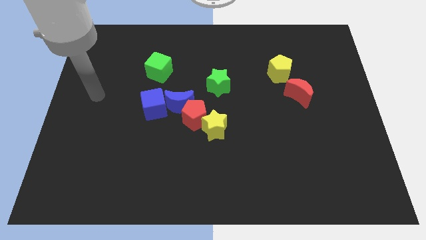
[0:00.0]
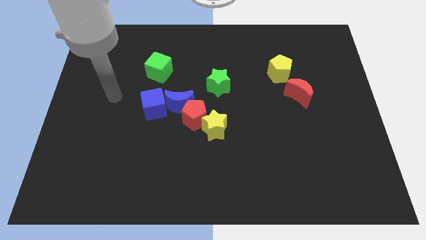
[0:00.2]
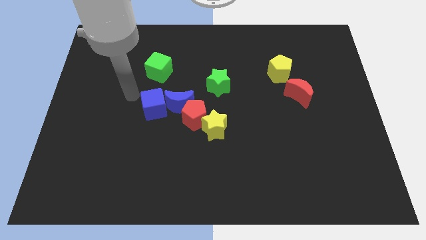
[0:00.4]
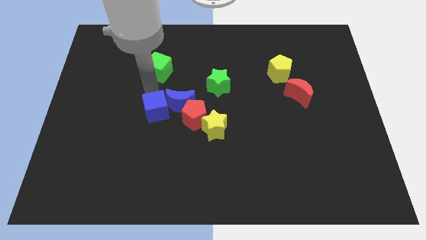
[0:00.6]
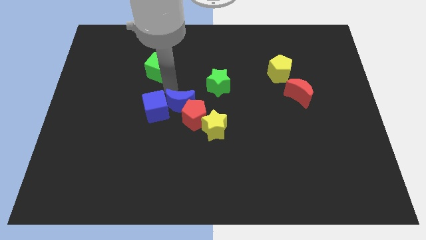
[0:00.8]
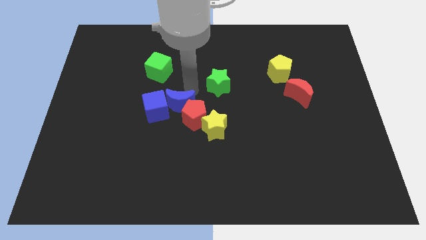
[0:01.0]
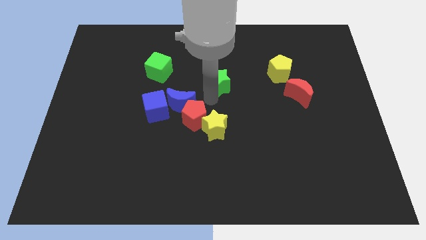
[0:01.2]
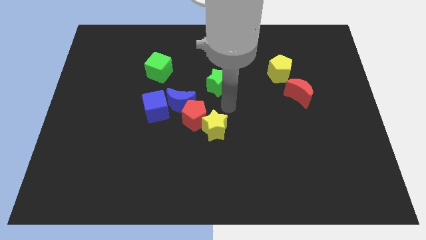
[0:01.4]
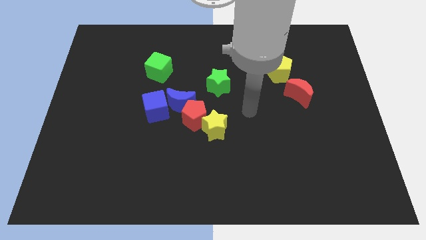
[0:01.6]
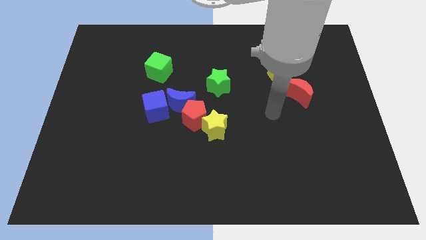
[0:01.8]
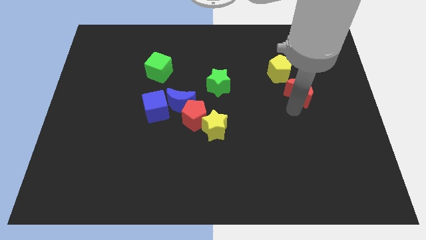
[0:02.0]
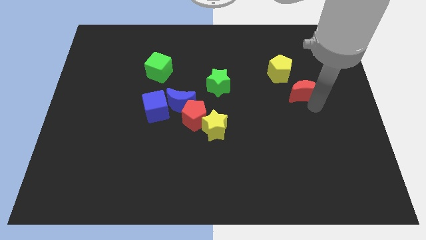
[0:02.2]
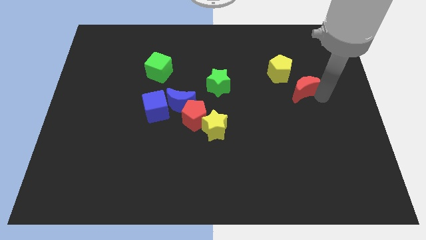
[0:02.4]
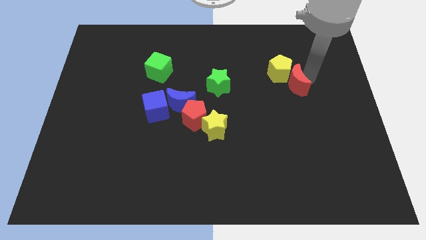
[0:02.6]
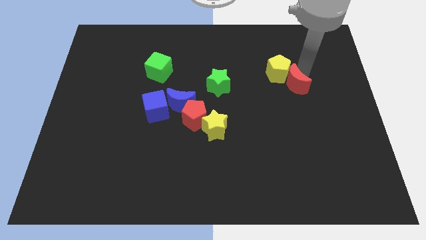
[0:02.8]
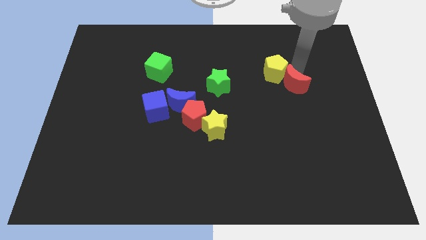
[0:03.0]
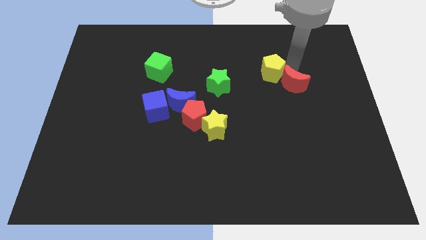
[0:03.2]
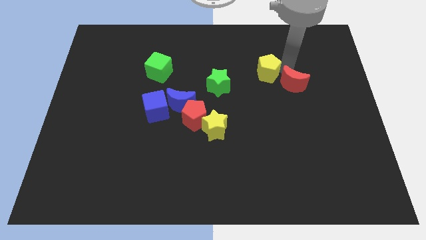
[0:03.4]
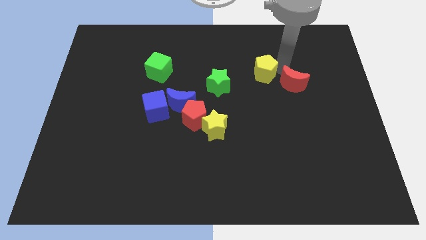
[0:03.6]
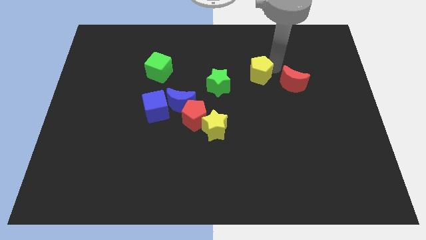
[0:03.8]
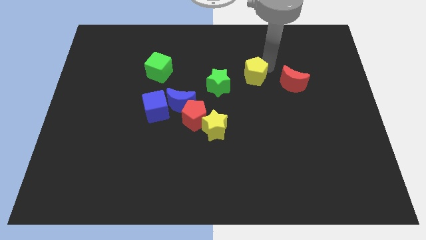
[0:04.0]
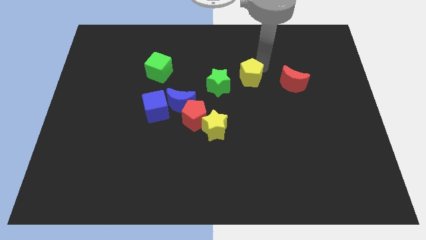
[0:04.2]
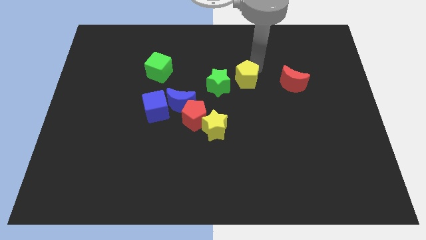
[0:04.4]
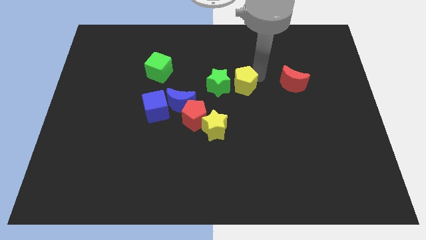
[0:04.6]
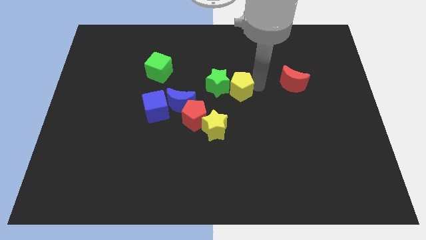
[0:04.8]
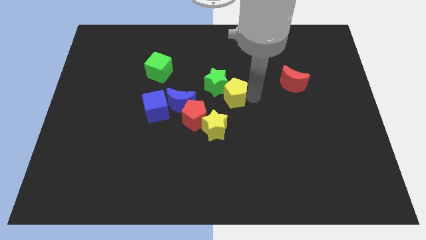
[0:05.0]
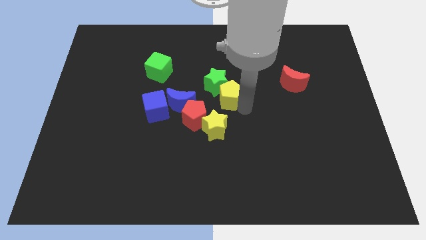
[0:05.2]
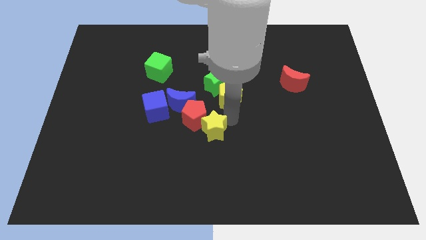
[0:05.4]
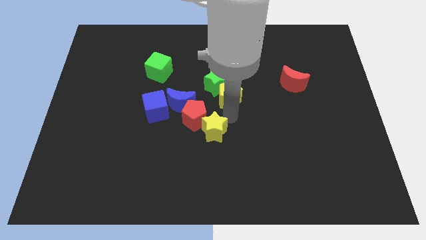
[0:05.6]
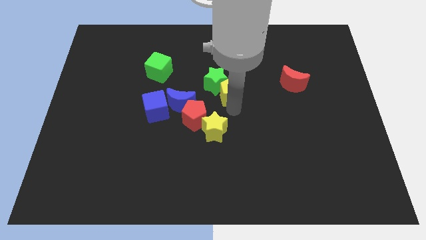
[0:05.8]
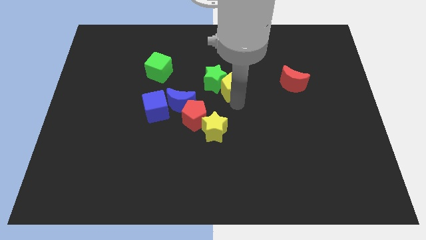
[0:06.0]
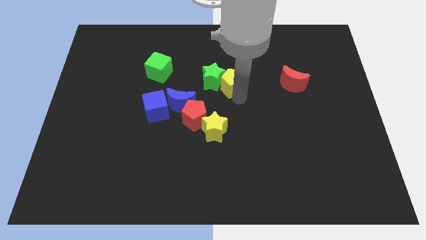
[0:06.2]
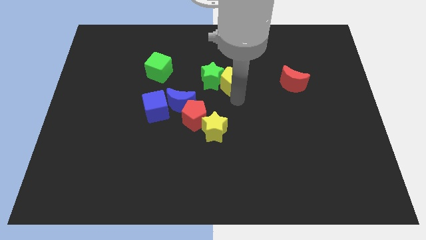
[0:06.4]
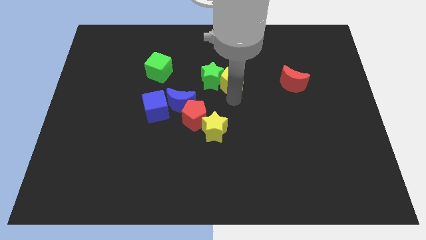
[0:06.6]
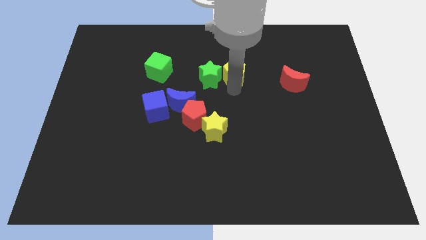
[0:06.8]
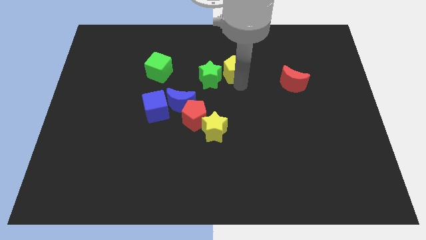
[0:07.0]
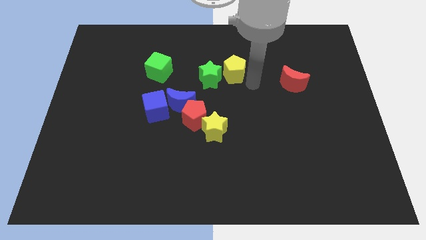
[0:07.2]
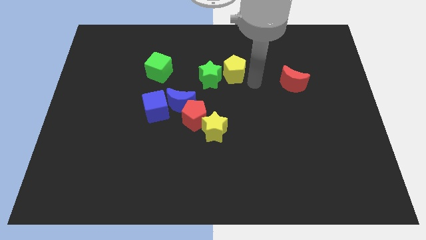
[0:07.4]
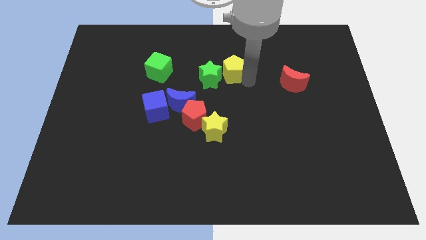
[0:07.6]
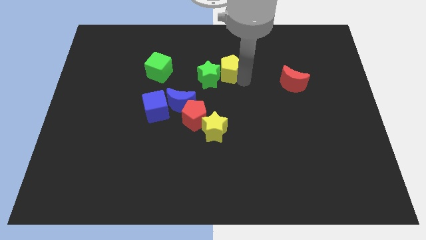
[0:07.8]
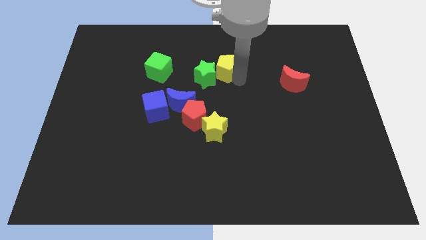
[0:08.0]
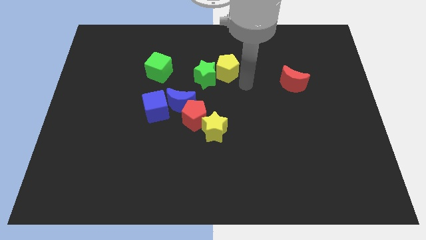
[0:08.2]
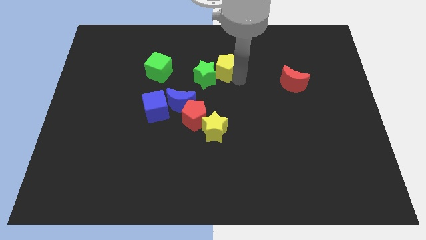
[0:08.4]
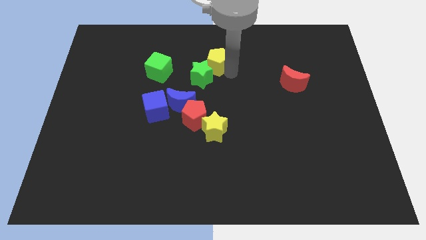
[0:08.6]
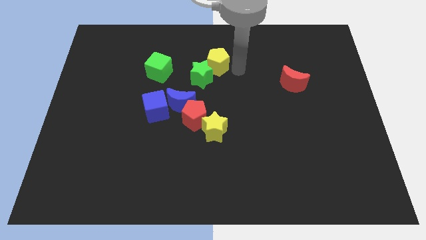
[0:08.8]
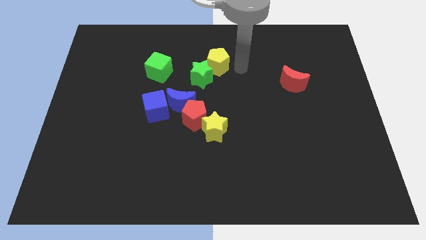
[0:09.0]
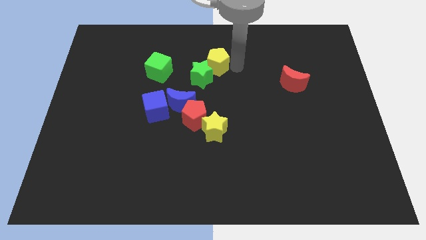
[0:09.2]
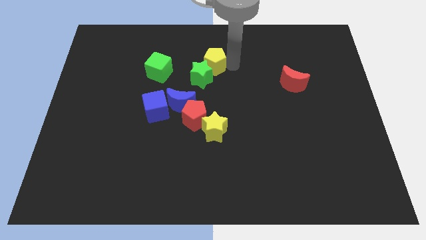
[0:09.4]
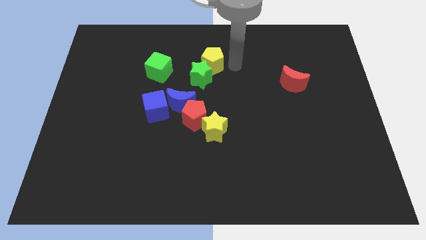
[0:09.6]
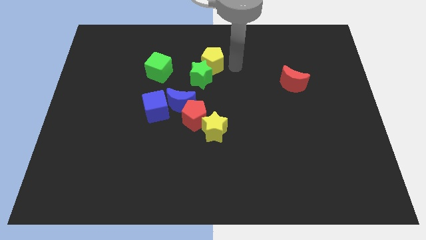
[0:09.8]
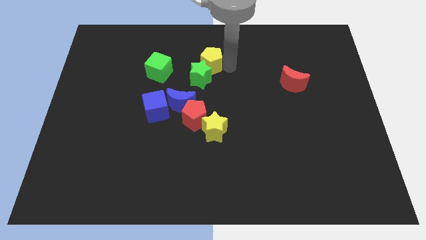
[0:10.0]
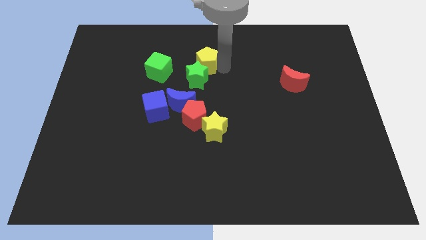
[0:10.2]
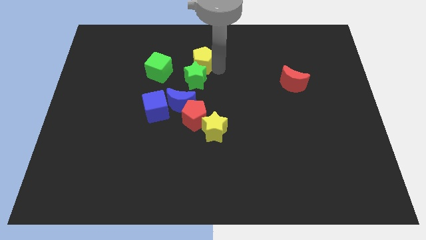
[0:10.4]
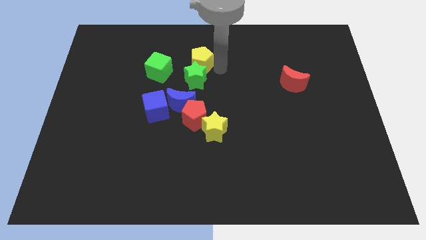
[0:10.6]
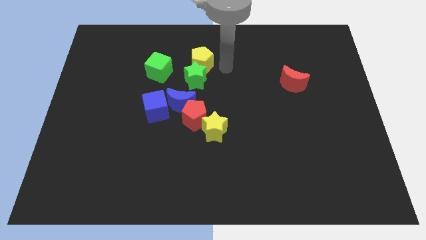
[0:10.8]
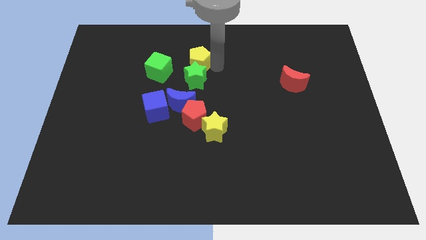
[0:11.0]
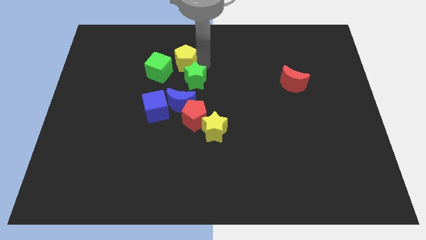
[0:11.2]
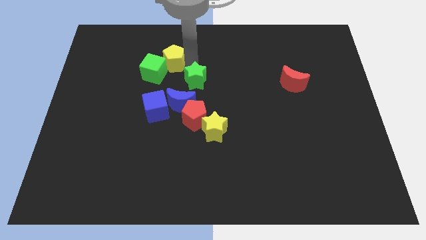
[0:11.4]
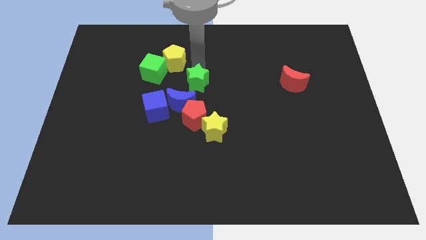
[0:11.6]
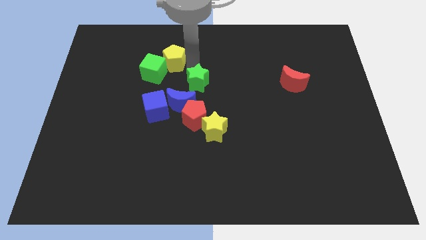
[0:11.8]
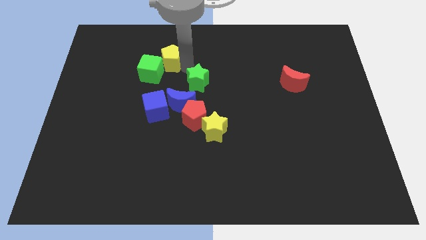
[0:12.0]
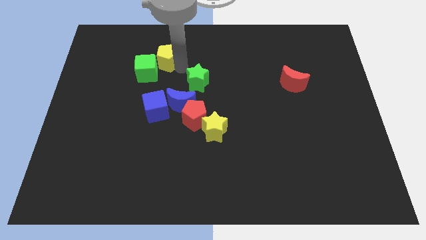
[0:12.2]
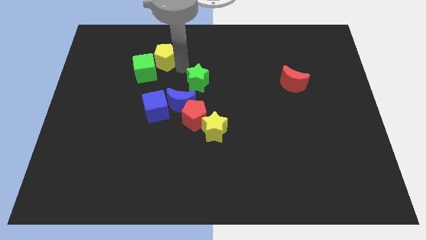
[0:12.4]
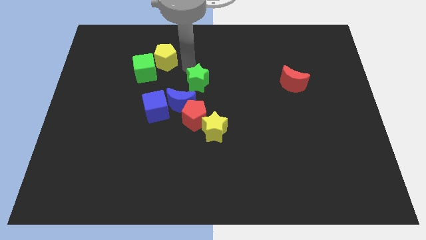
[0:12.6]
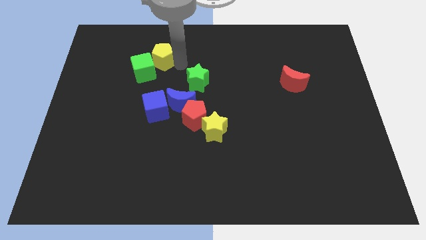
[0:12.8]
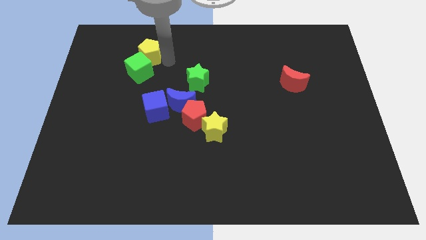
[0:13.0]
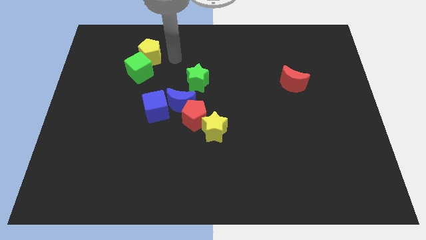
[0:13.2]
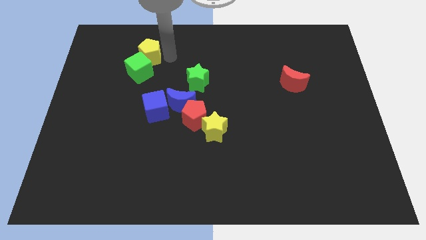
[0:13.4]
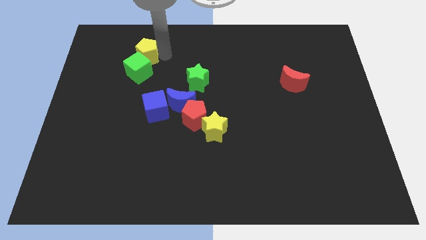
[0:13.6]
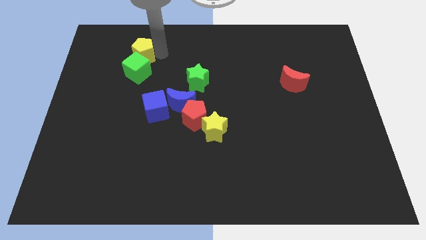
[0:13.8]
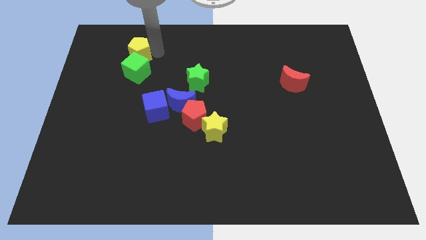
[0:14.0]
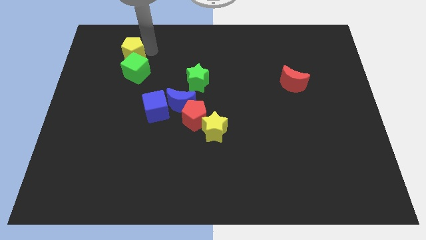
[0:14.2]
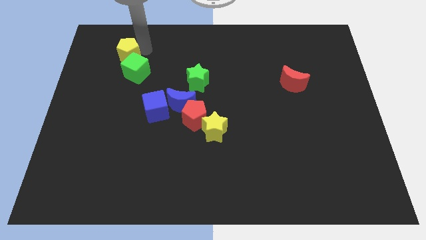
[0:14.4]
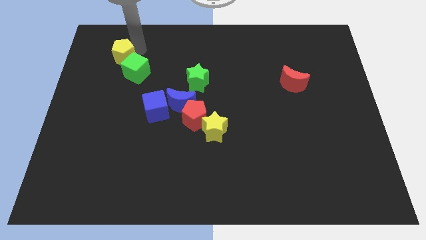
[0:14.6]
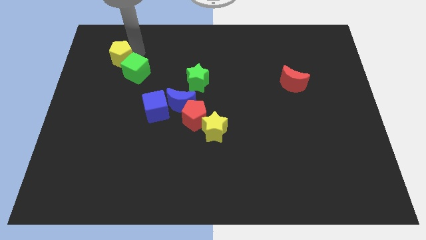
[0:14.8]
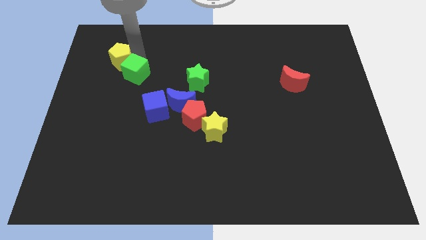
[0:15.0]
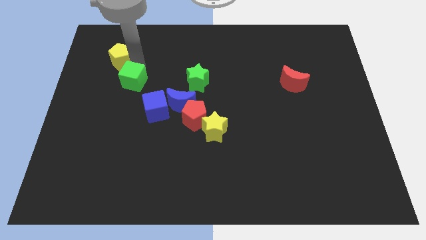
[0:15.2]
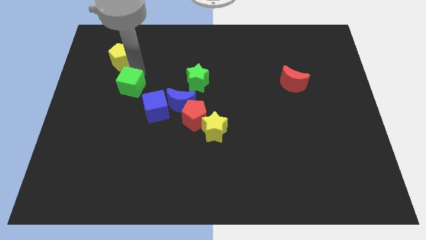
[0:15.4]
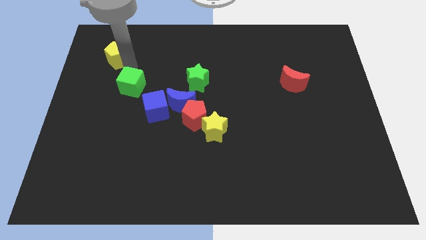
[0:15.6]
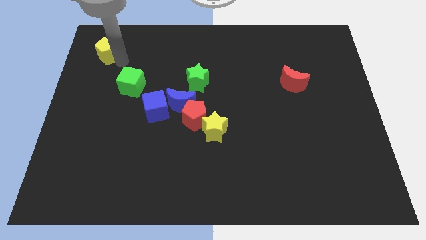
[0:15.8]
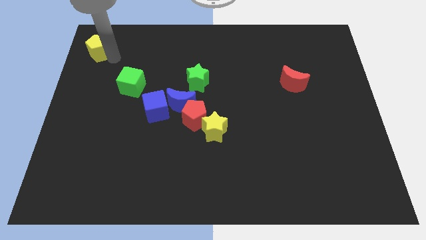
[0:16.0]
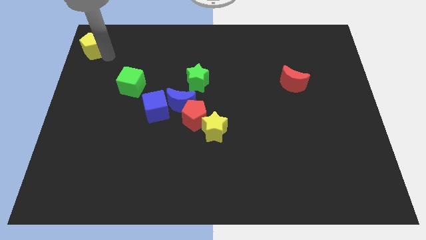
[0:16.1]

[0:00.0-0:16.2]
slide the yellow pentagon to the top left
